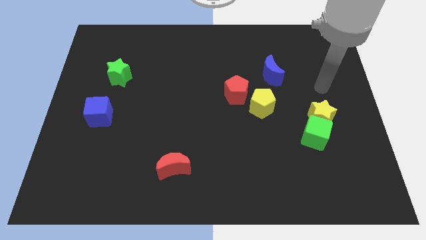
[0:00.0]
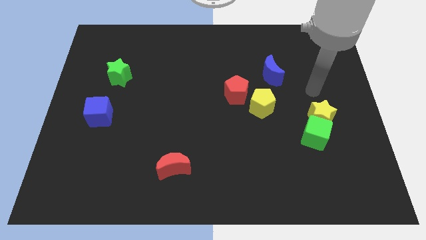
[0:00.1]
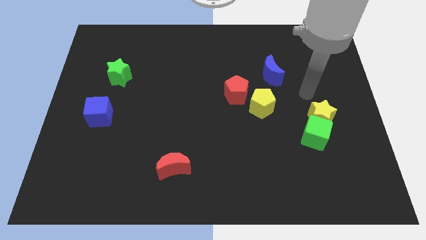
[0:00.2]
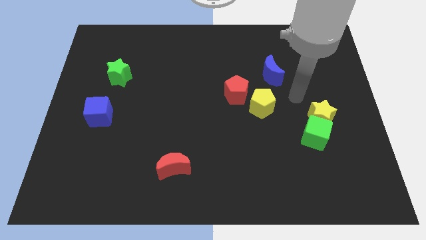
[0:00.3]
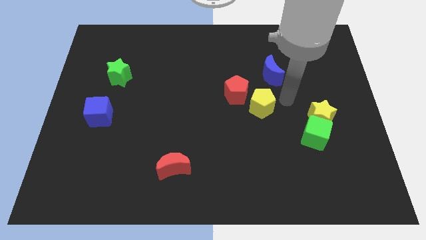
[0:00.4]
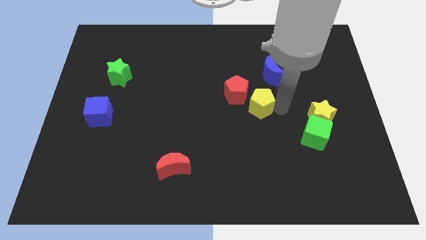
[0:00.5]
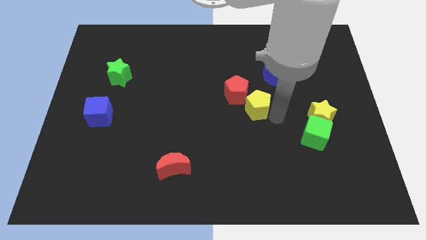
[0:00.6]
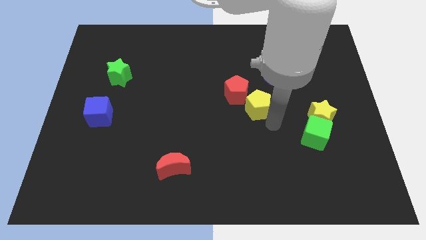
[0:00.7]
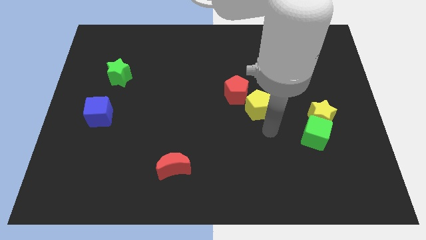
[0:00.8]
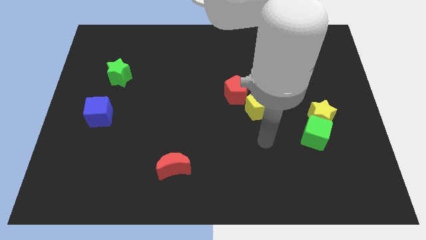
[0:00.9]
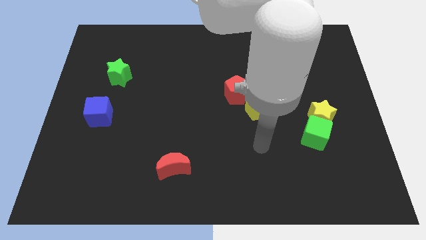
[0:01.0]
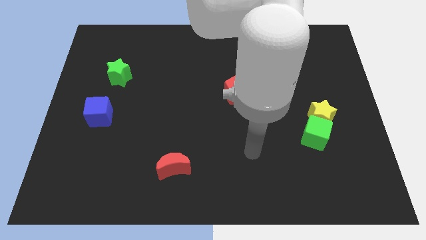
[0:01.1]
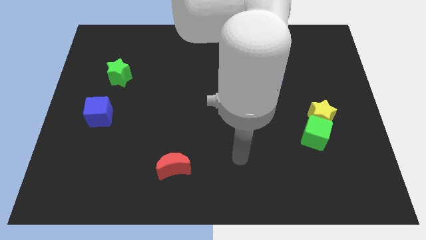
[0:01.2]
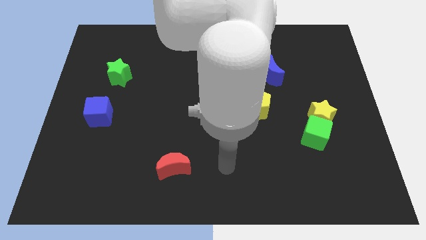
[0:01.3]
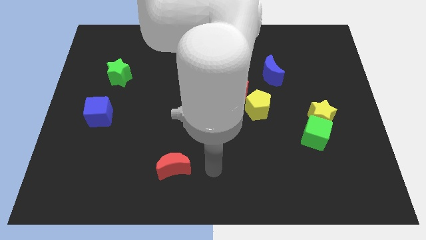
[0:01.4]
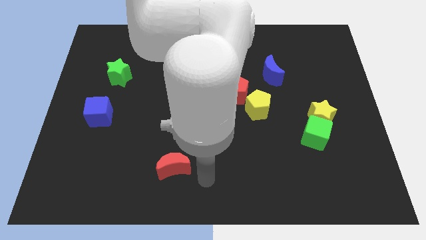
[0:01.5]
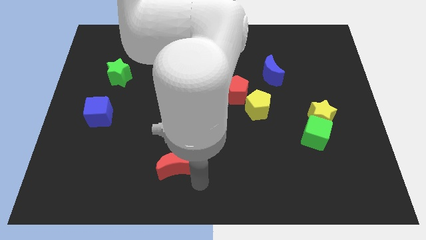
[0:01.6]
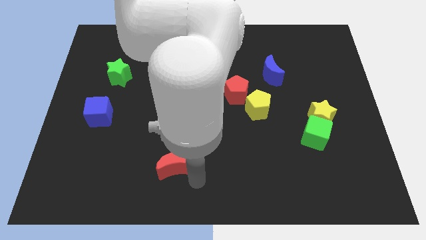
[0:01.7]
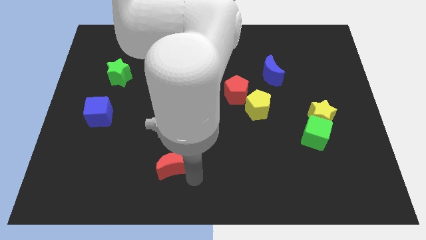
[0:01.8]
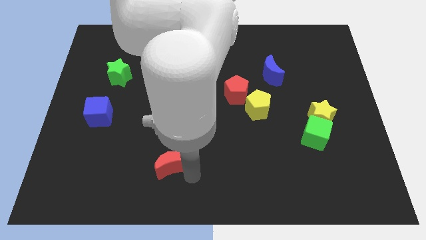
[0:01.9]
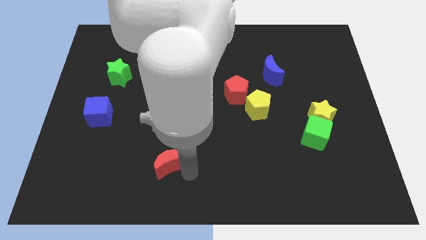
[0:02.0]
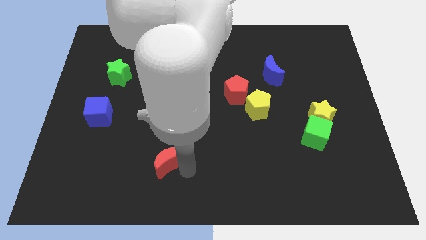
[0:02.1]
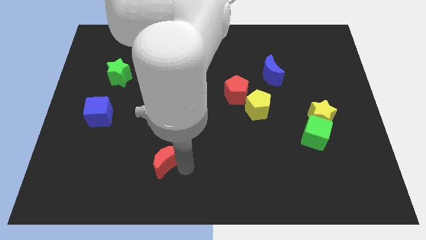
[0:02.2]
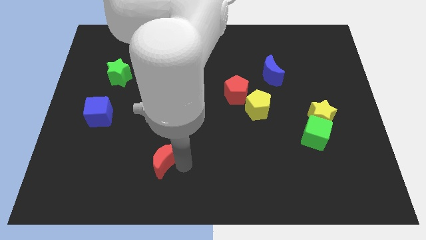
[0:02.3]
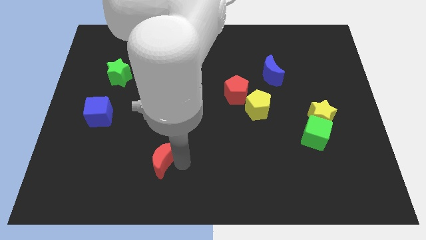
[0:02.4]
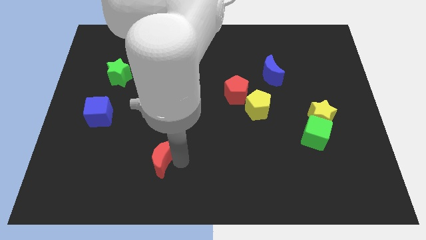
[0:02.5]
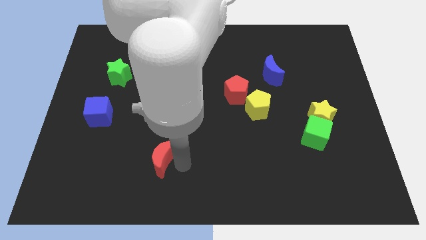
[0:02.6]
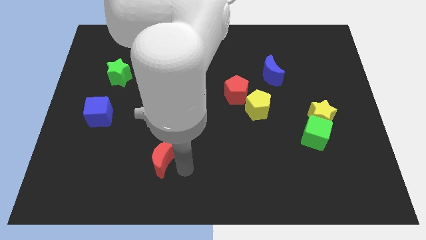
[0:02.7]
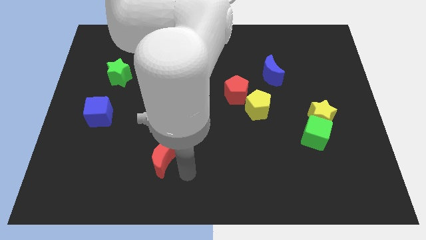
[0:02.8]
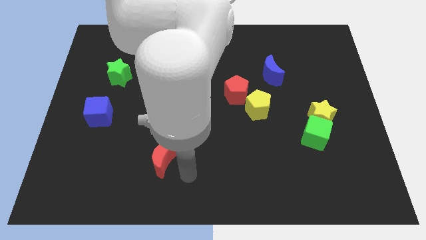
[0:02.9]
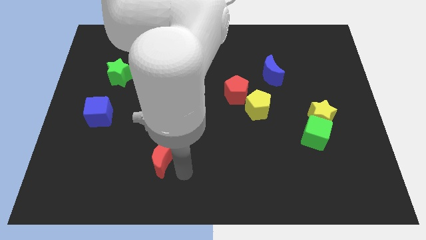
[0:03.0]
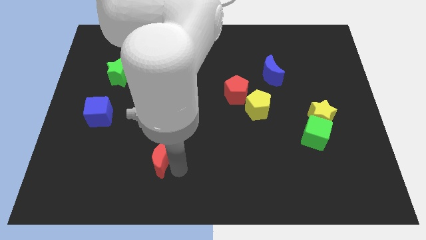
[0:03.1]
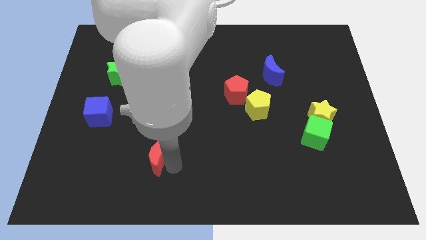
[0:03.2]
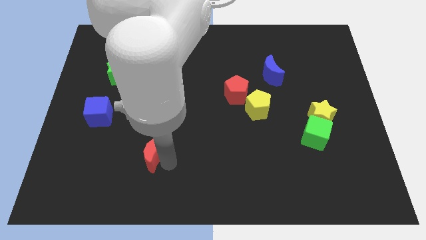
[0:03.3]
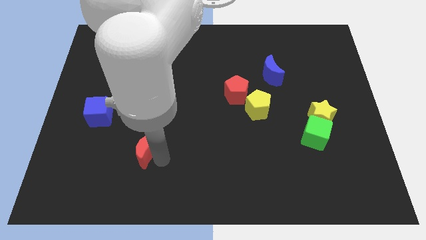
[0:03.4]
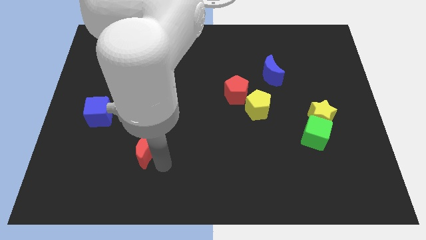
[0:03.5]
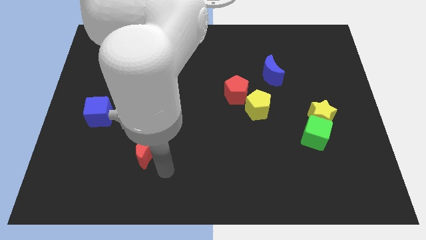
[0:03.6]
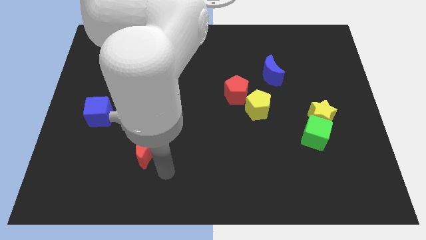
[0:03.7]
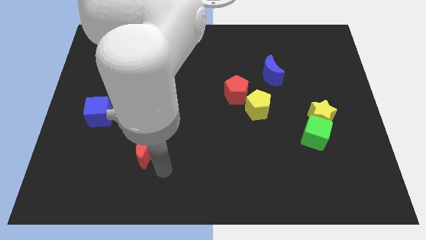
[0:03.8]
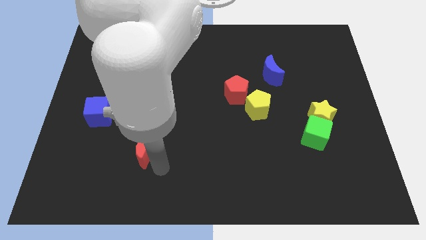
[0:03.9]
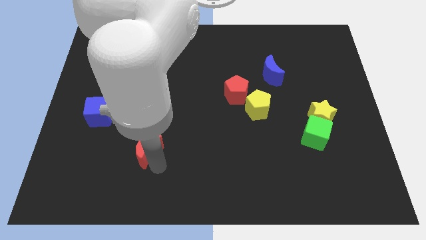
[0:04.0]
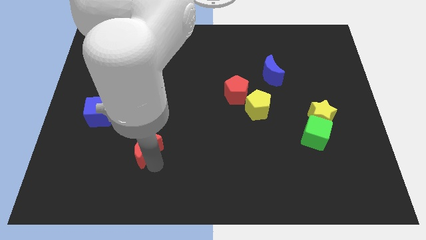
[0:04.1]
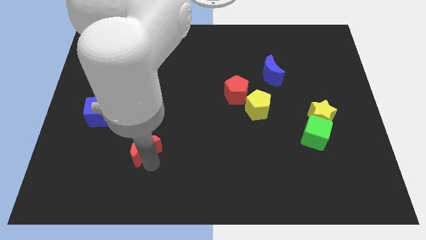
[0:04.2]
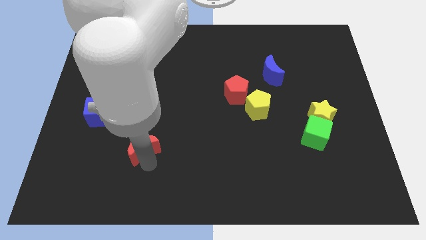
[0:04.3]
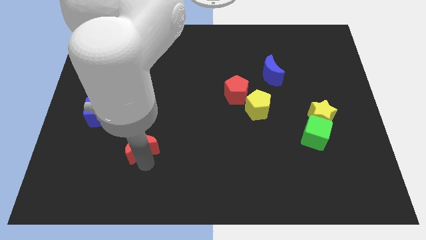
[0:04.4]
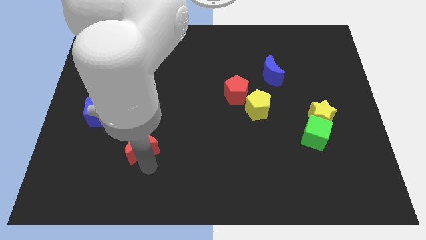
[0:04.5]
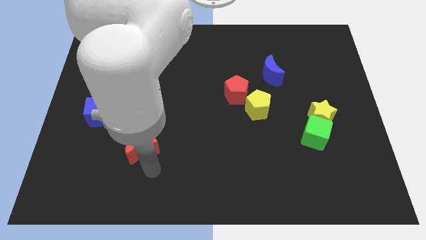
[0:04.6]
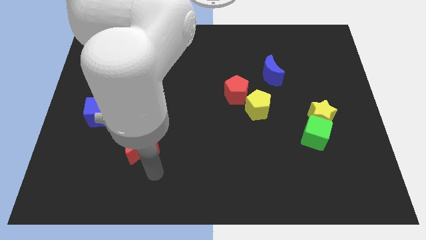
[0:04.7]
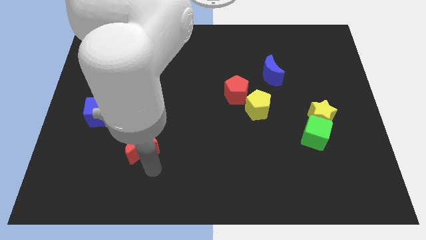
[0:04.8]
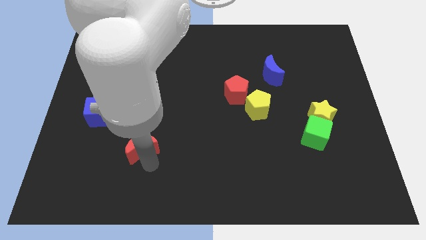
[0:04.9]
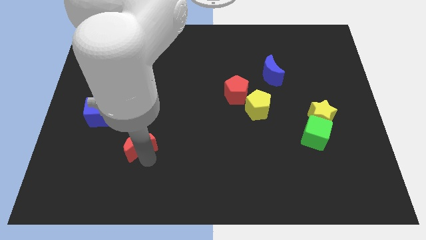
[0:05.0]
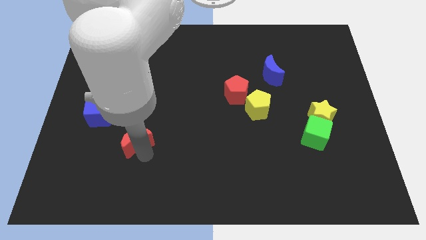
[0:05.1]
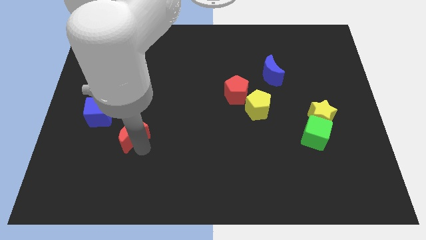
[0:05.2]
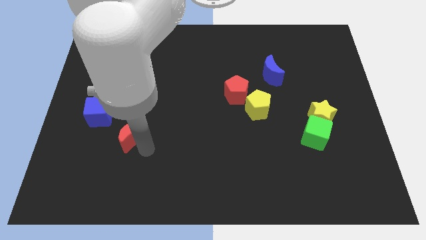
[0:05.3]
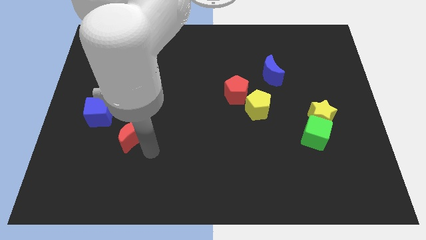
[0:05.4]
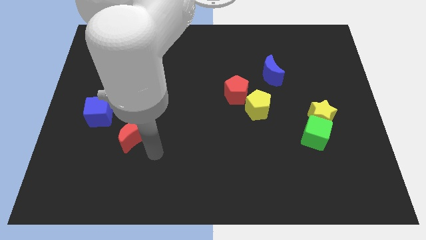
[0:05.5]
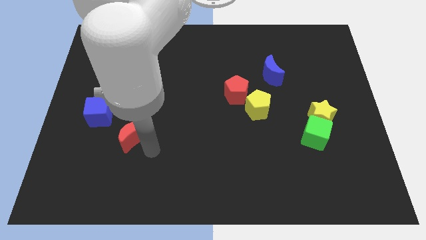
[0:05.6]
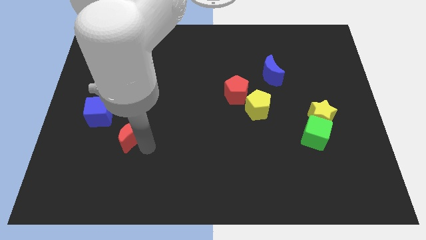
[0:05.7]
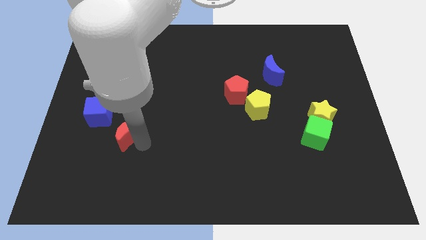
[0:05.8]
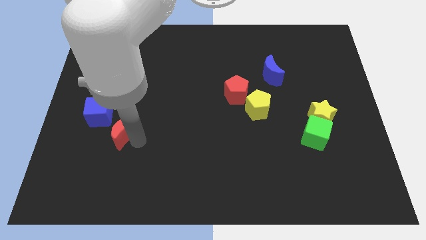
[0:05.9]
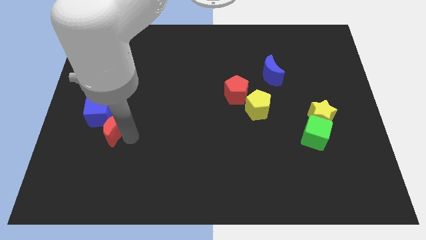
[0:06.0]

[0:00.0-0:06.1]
push the red moon towards the blue cube
